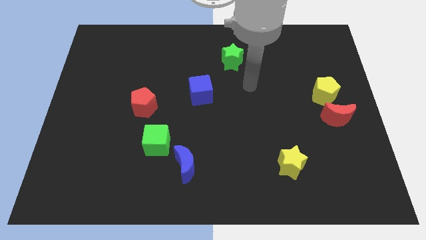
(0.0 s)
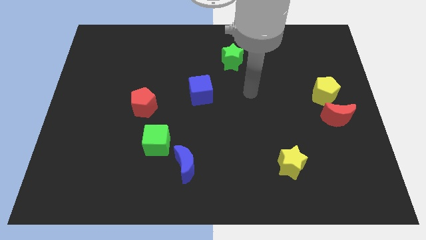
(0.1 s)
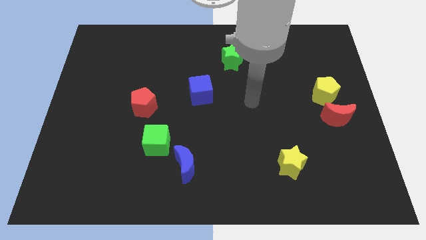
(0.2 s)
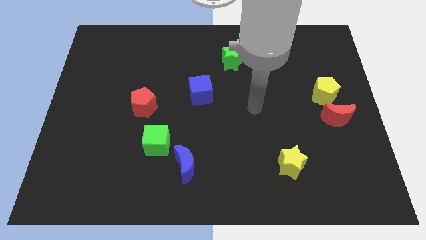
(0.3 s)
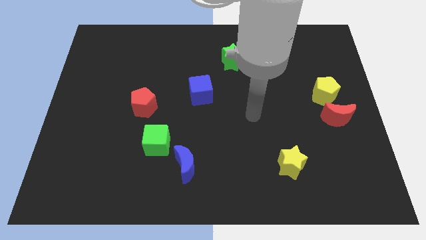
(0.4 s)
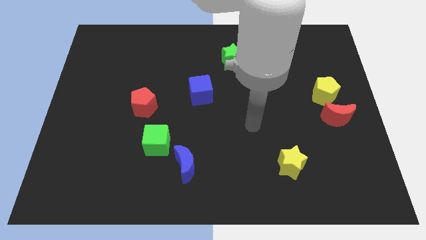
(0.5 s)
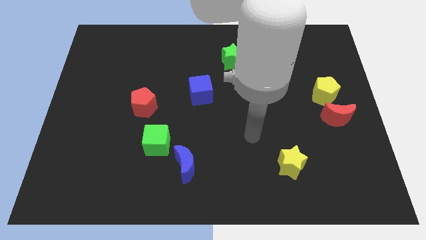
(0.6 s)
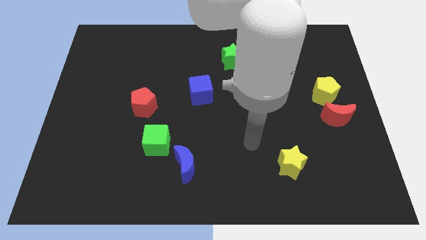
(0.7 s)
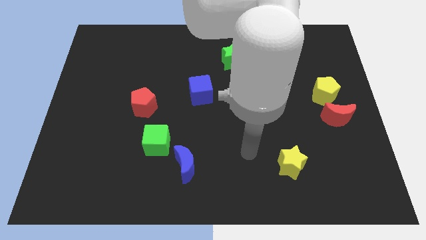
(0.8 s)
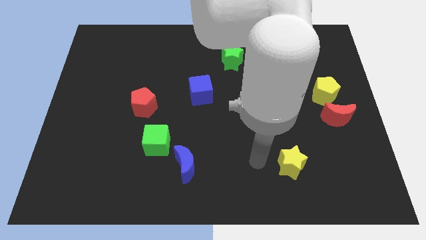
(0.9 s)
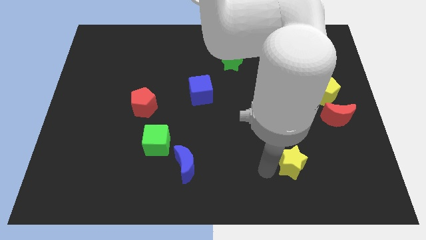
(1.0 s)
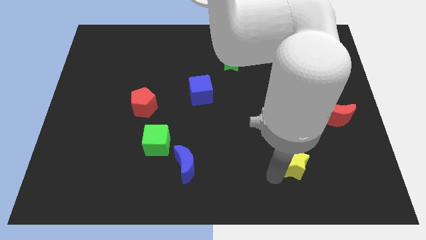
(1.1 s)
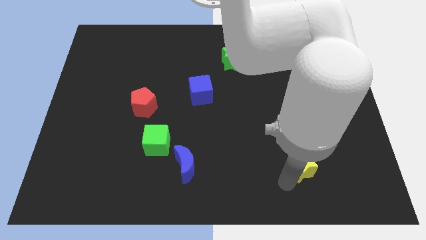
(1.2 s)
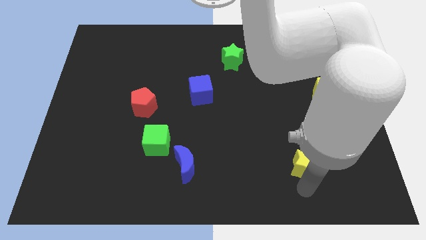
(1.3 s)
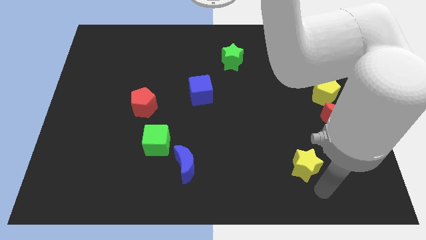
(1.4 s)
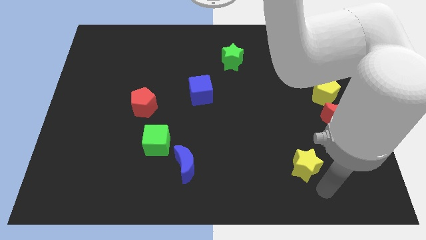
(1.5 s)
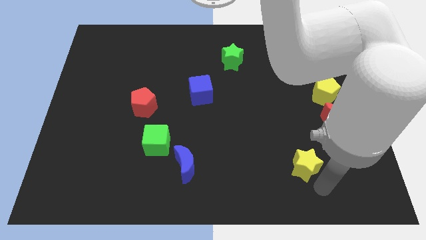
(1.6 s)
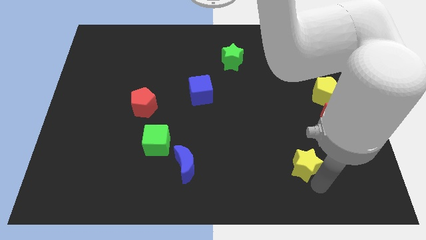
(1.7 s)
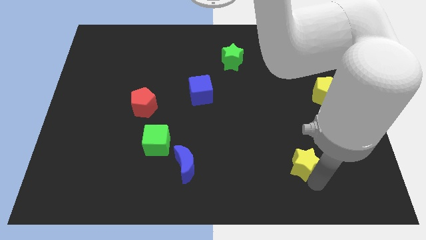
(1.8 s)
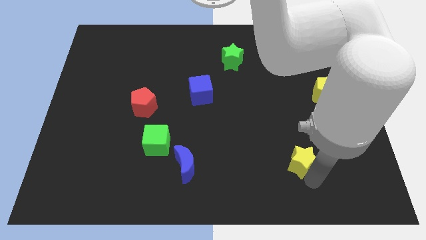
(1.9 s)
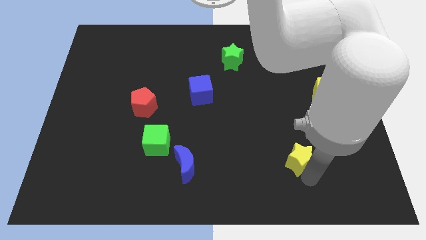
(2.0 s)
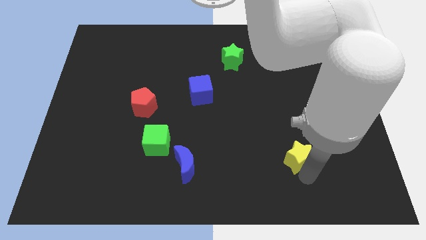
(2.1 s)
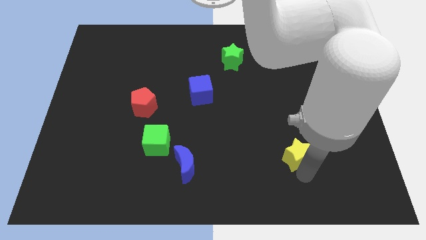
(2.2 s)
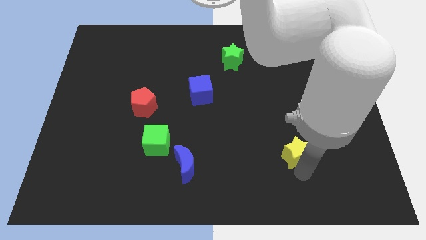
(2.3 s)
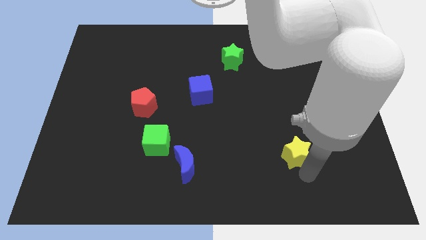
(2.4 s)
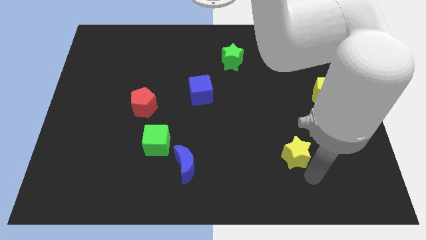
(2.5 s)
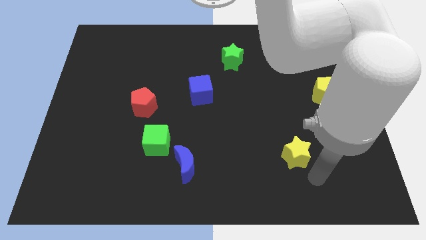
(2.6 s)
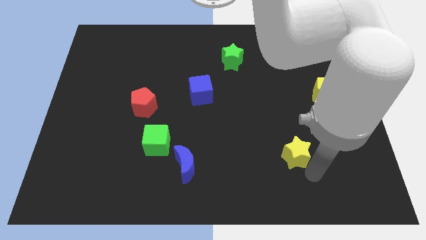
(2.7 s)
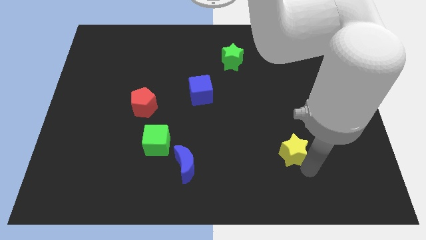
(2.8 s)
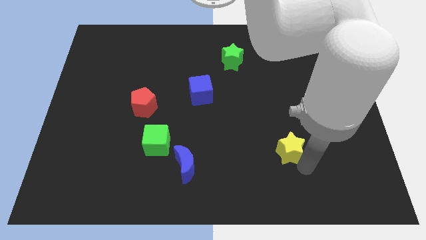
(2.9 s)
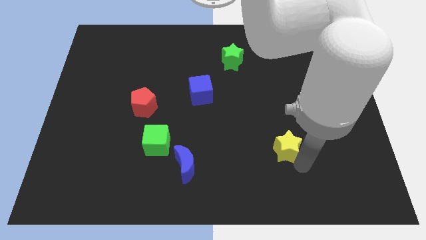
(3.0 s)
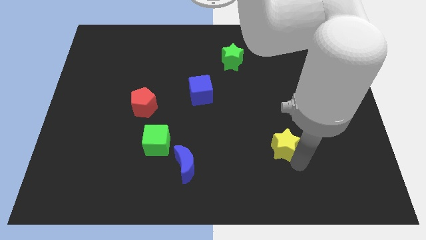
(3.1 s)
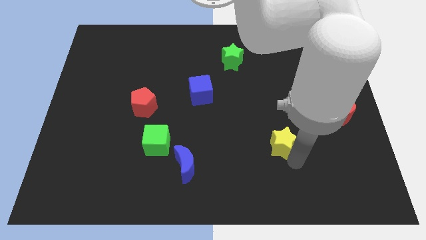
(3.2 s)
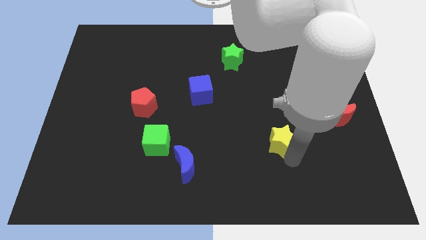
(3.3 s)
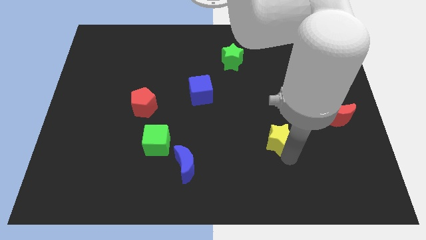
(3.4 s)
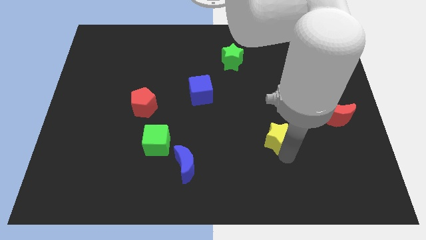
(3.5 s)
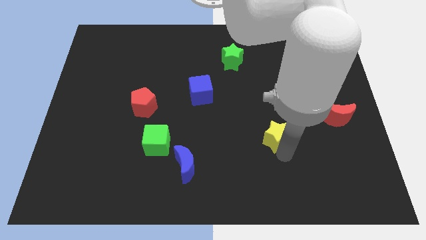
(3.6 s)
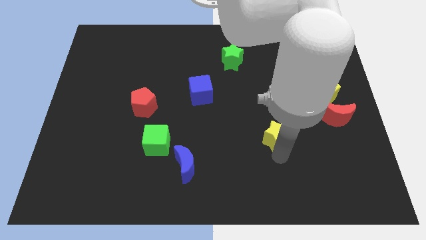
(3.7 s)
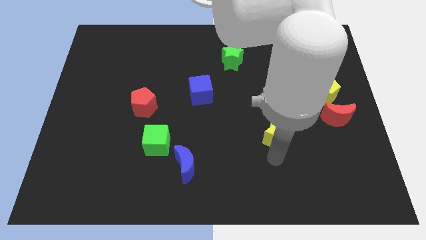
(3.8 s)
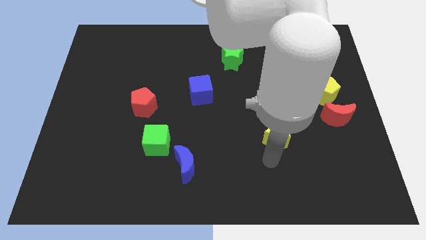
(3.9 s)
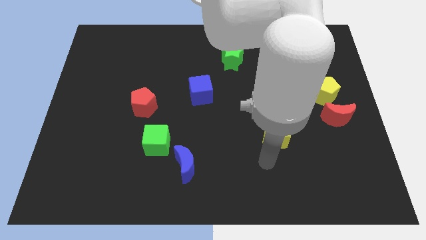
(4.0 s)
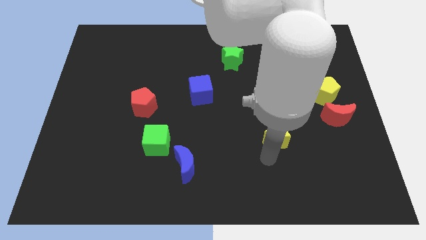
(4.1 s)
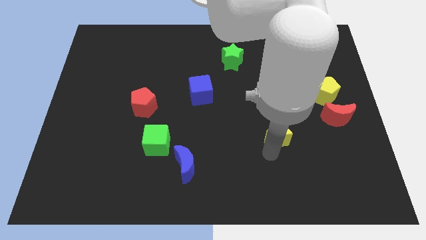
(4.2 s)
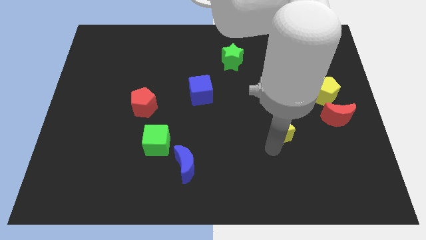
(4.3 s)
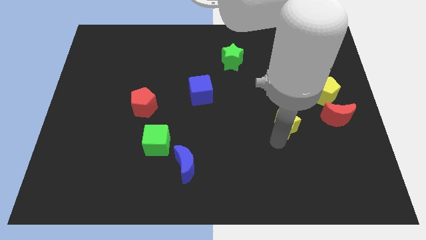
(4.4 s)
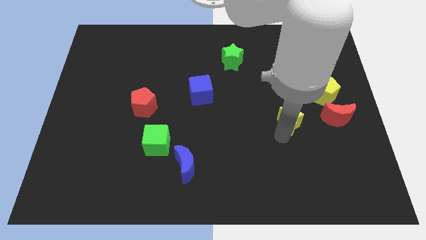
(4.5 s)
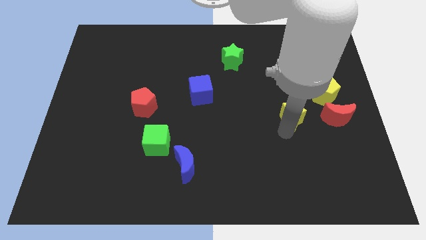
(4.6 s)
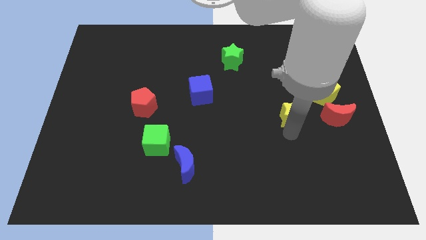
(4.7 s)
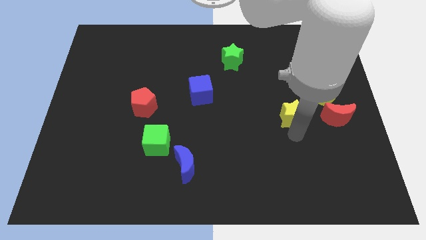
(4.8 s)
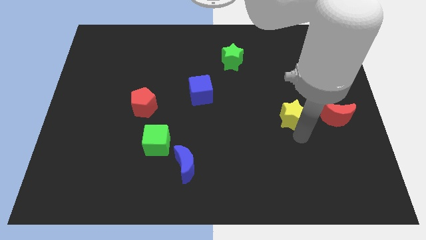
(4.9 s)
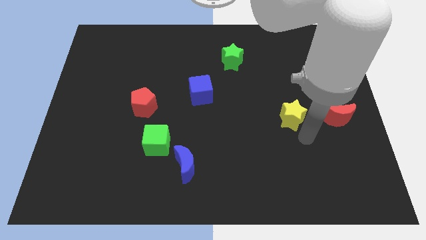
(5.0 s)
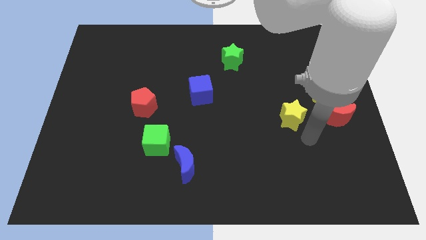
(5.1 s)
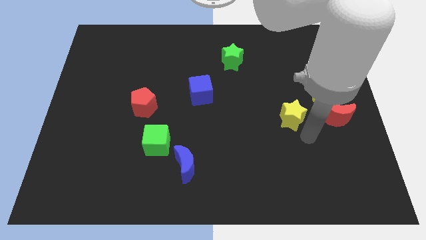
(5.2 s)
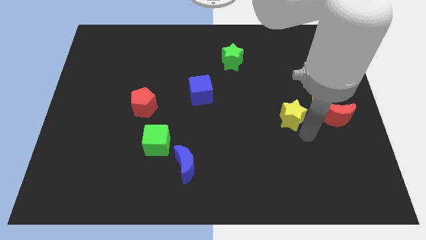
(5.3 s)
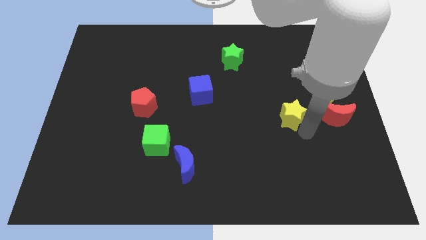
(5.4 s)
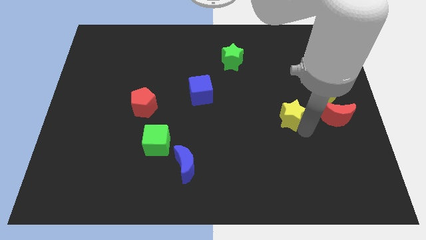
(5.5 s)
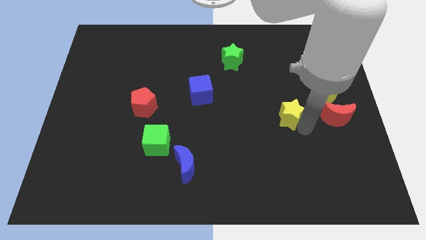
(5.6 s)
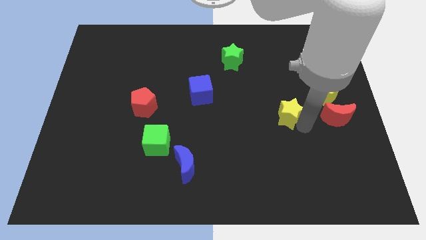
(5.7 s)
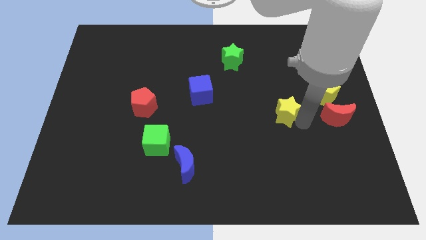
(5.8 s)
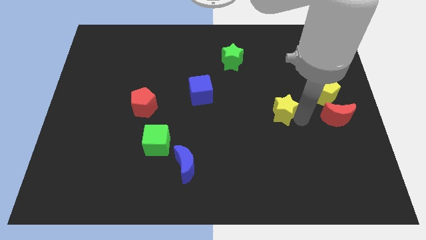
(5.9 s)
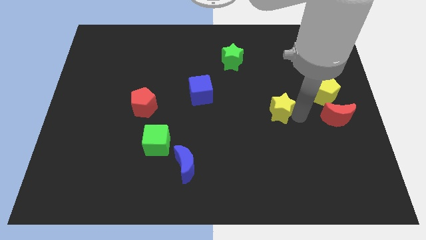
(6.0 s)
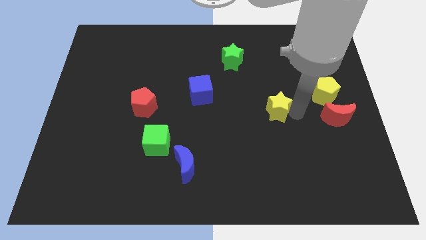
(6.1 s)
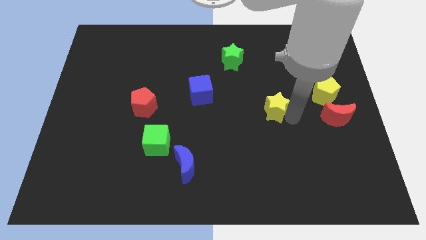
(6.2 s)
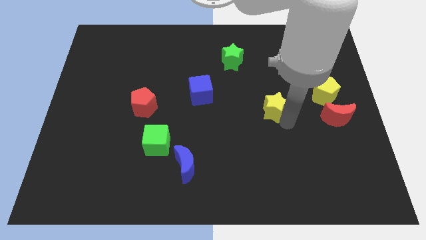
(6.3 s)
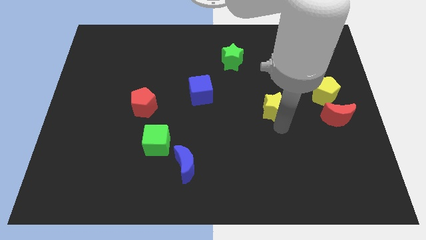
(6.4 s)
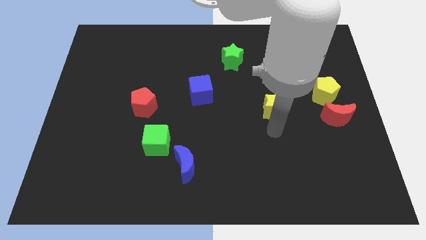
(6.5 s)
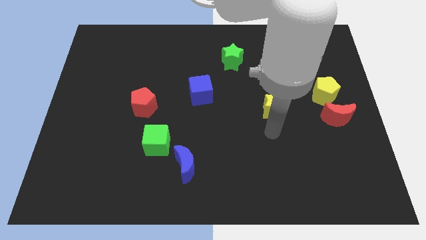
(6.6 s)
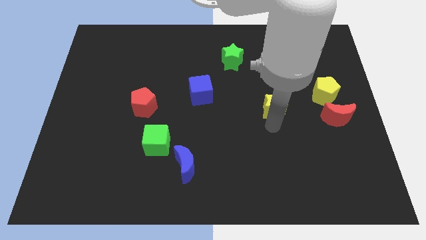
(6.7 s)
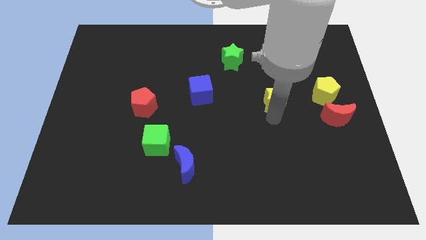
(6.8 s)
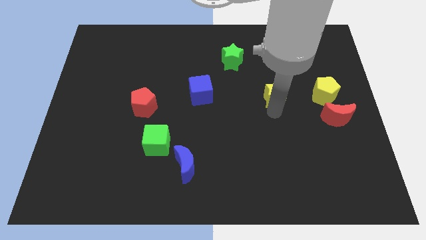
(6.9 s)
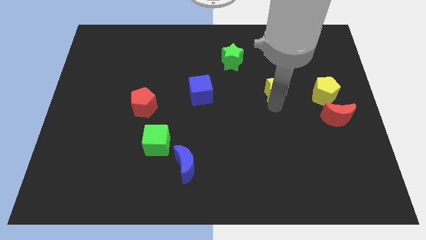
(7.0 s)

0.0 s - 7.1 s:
slide the yellow star up

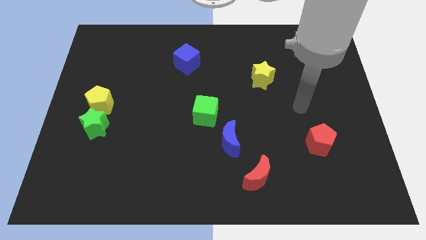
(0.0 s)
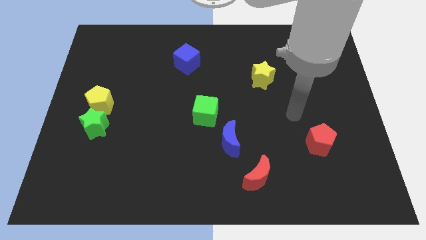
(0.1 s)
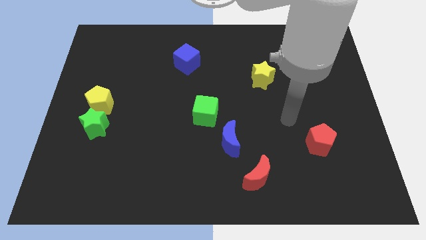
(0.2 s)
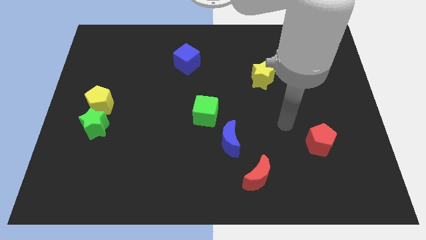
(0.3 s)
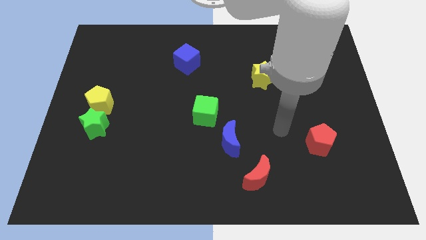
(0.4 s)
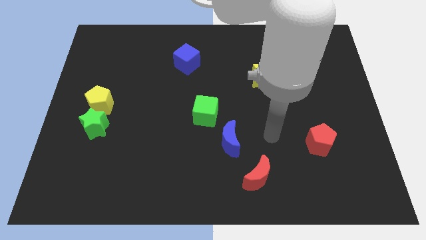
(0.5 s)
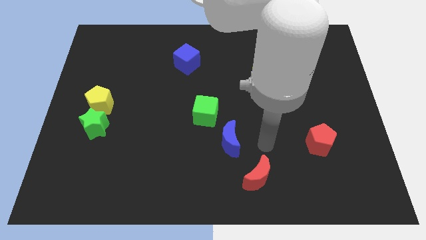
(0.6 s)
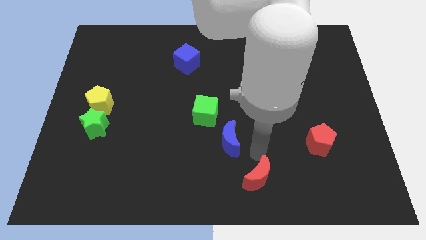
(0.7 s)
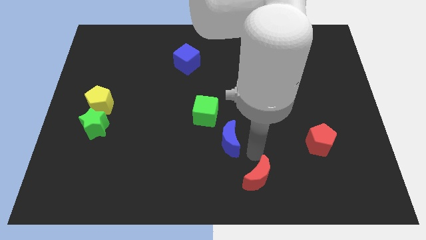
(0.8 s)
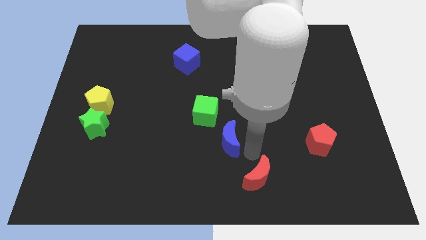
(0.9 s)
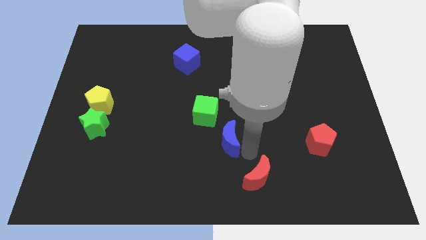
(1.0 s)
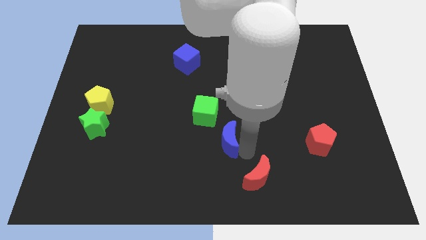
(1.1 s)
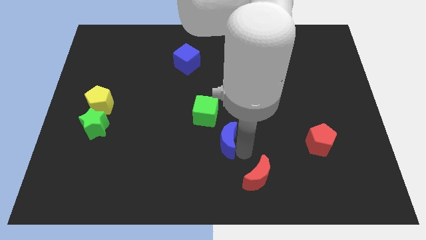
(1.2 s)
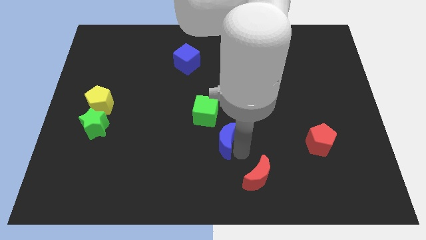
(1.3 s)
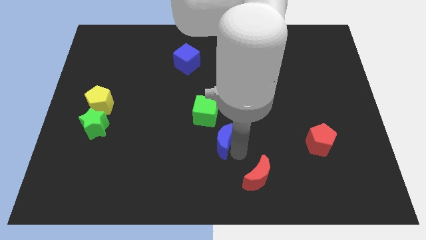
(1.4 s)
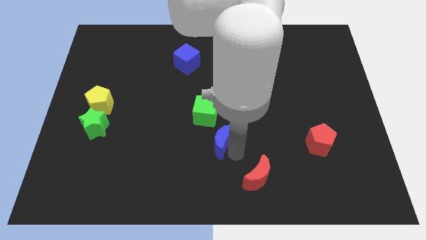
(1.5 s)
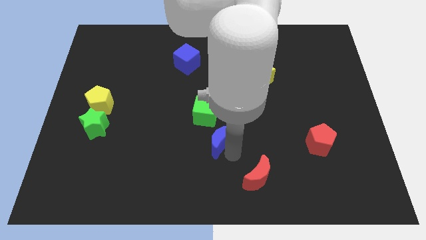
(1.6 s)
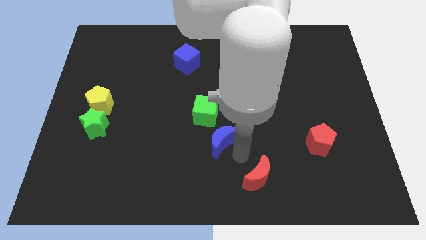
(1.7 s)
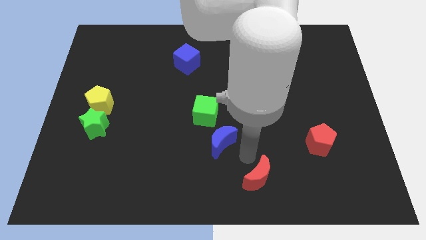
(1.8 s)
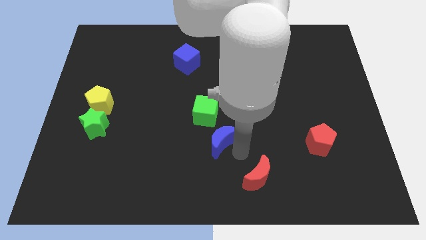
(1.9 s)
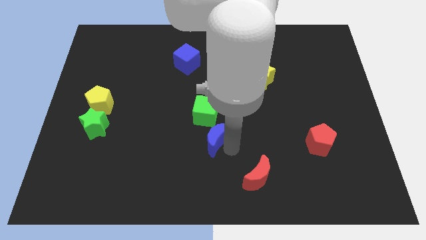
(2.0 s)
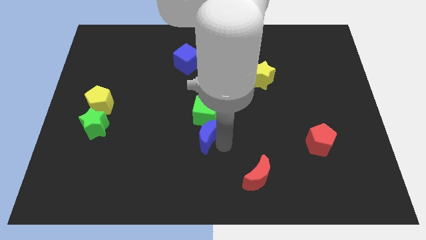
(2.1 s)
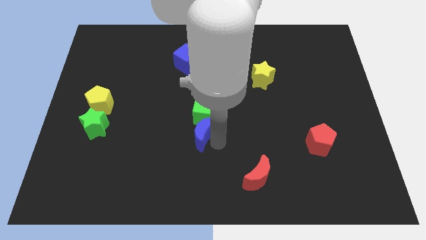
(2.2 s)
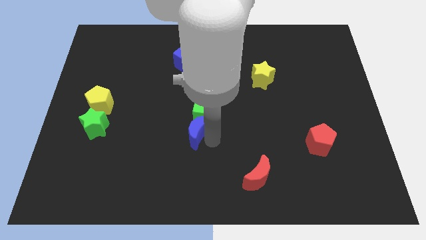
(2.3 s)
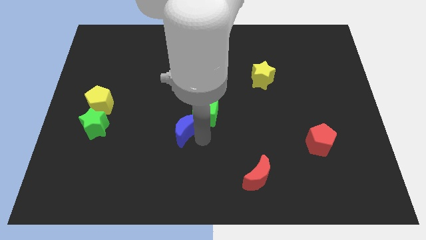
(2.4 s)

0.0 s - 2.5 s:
slightly push the blue moon upwards and left
